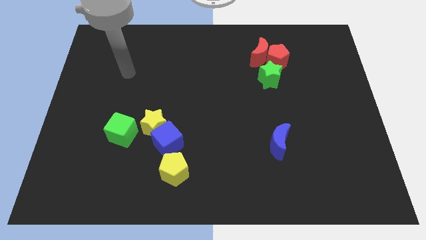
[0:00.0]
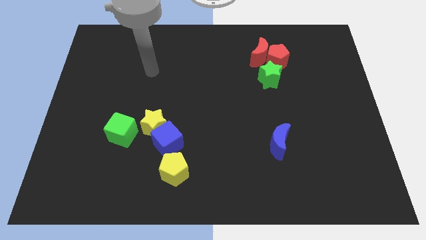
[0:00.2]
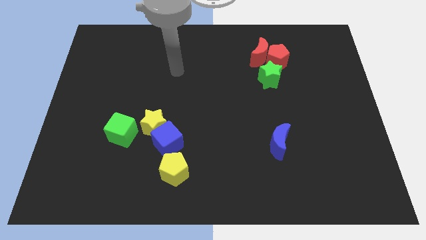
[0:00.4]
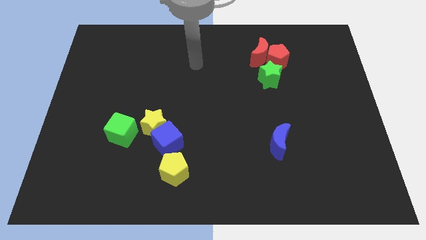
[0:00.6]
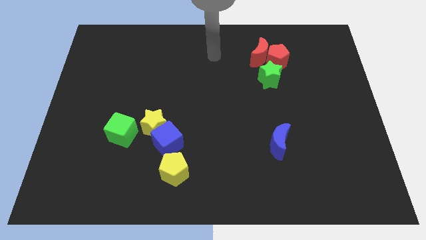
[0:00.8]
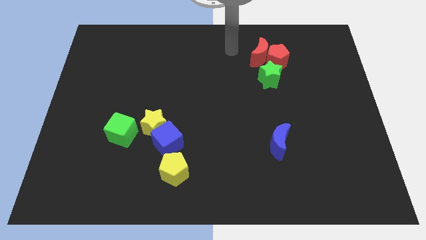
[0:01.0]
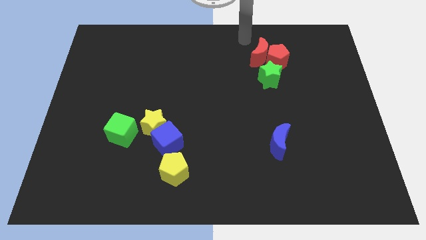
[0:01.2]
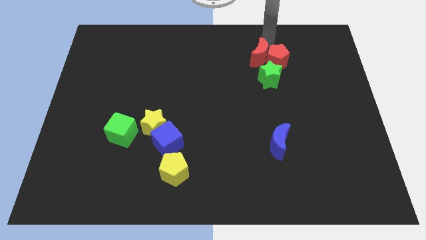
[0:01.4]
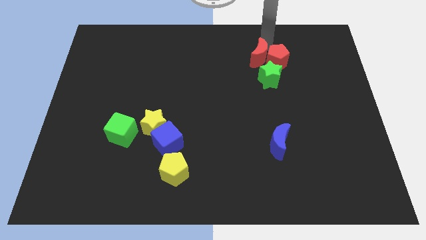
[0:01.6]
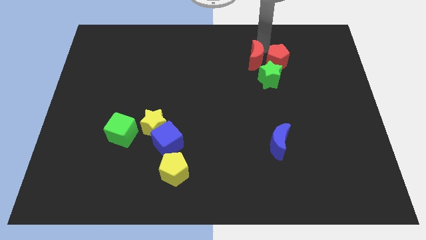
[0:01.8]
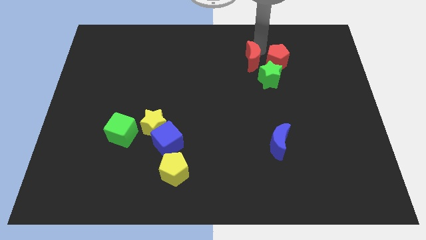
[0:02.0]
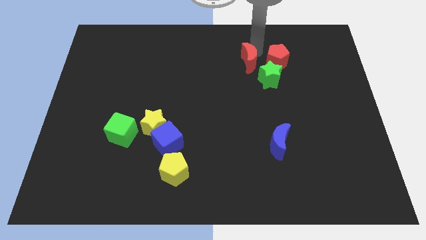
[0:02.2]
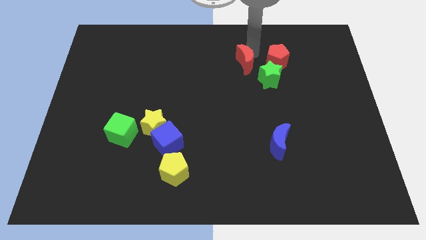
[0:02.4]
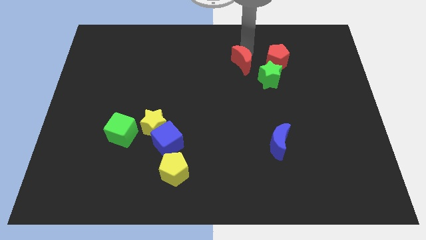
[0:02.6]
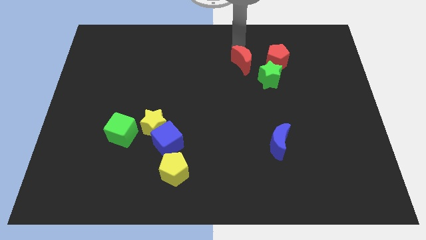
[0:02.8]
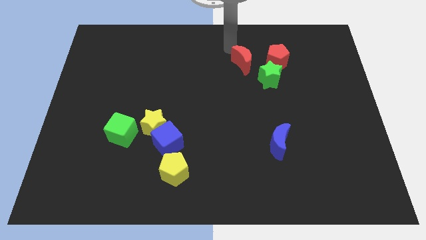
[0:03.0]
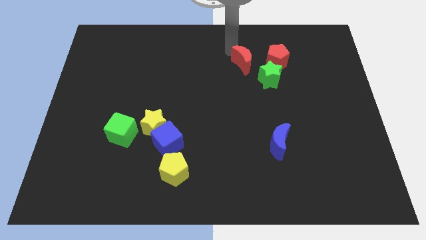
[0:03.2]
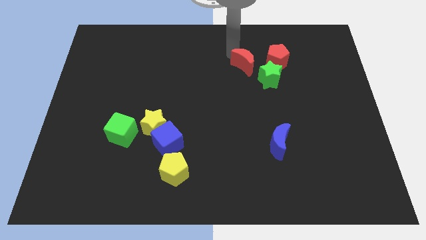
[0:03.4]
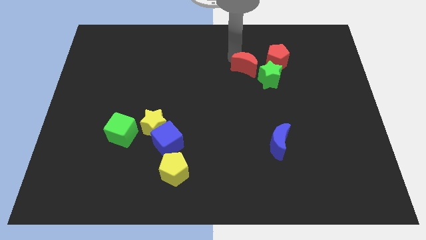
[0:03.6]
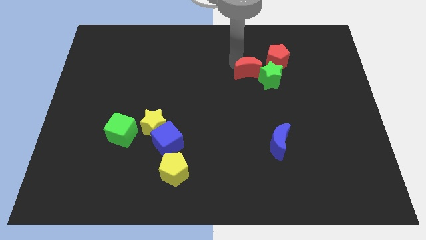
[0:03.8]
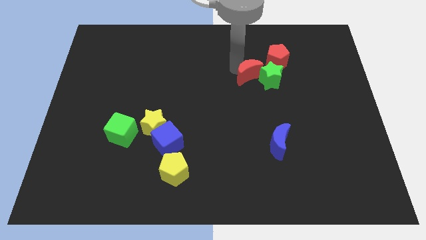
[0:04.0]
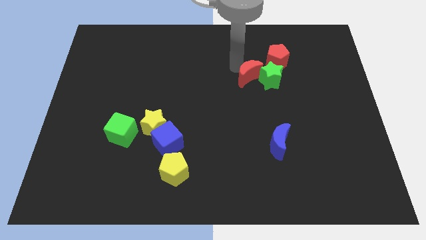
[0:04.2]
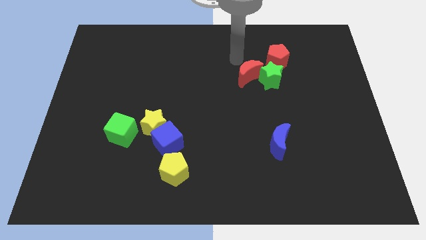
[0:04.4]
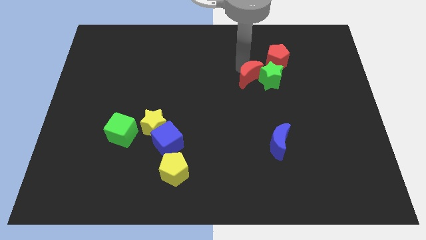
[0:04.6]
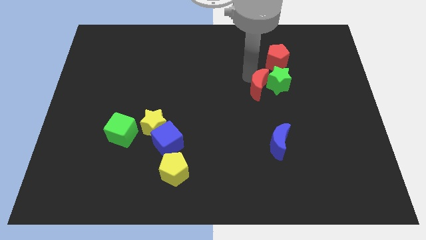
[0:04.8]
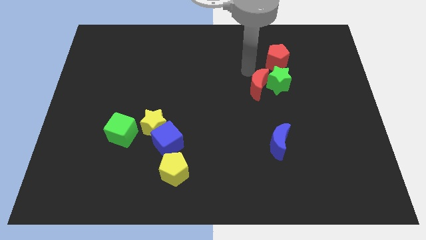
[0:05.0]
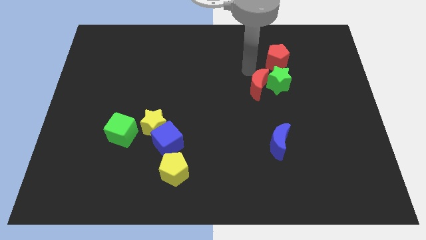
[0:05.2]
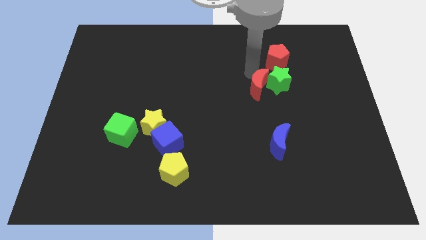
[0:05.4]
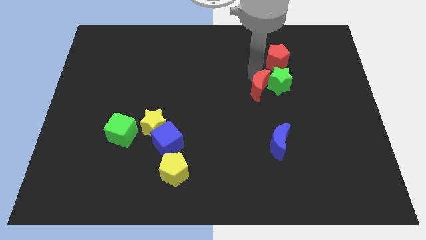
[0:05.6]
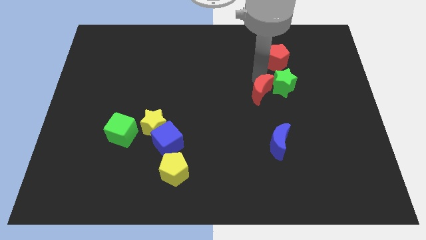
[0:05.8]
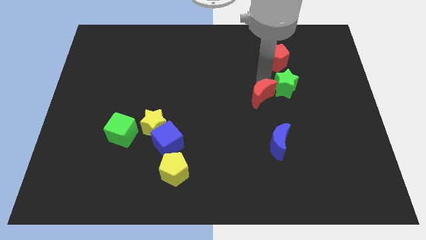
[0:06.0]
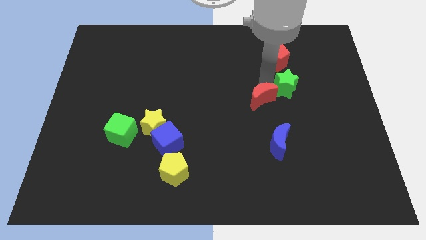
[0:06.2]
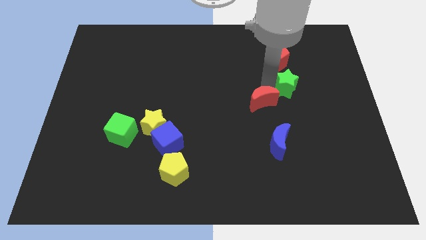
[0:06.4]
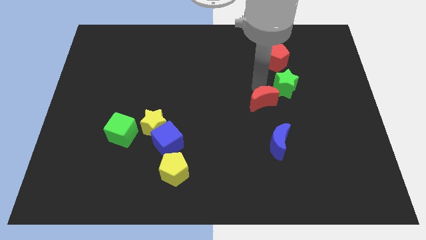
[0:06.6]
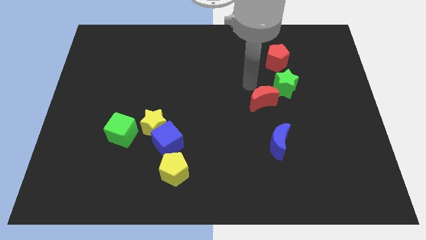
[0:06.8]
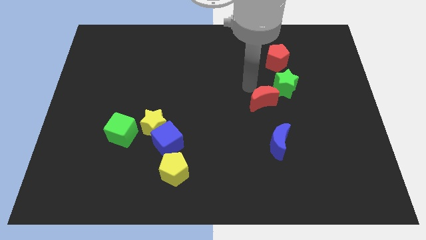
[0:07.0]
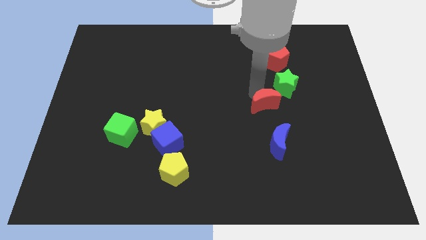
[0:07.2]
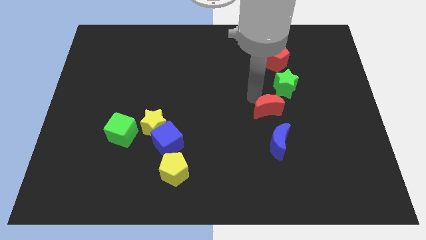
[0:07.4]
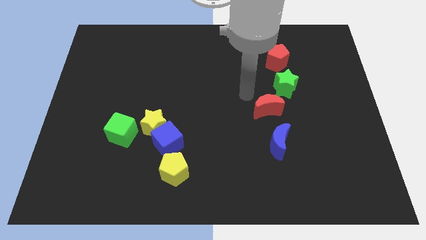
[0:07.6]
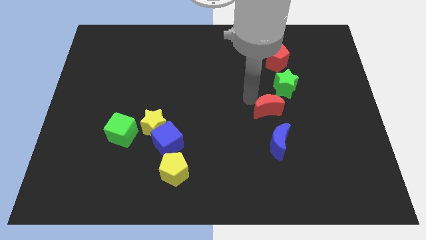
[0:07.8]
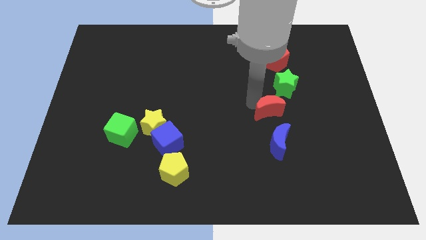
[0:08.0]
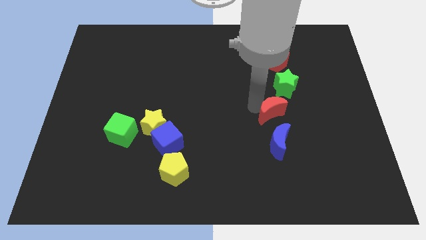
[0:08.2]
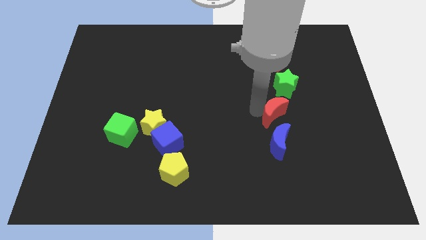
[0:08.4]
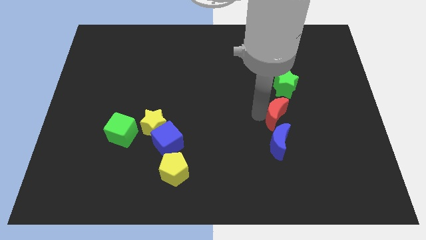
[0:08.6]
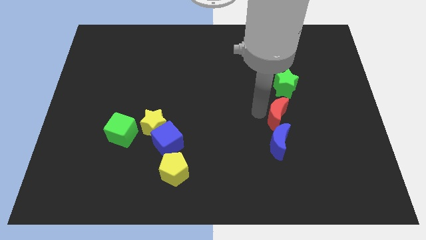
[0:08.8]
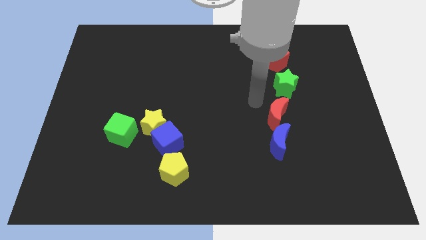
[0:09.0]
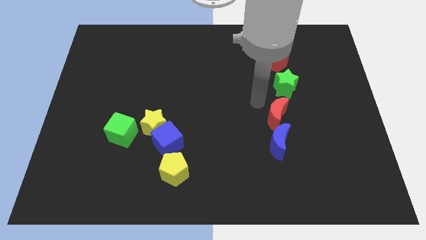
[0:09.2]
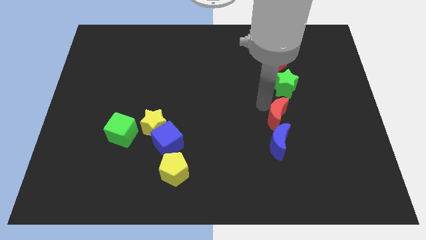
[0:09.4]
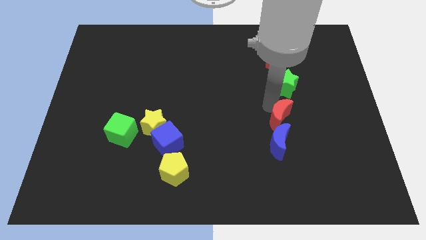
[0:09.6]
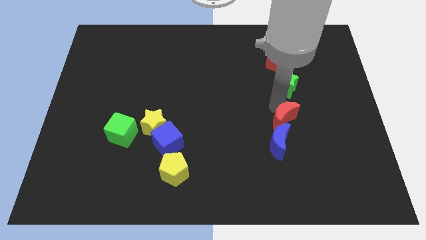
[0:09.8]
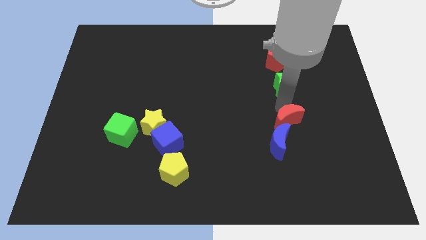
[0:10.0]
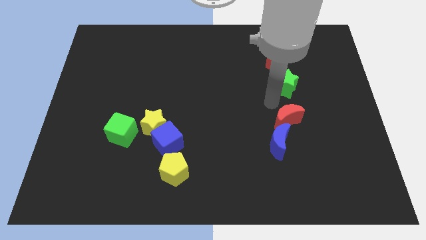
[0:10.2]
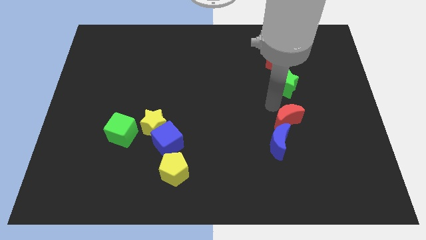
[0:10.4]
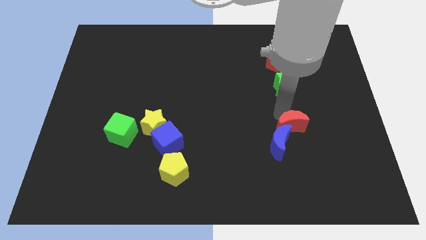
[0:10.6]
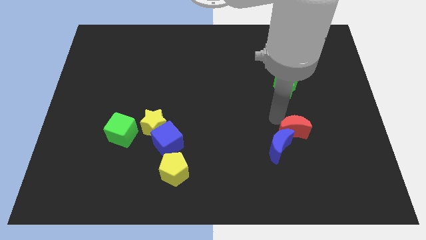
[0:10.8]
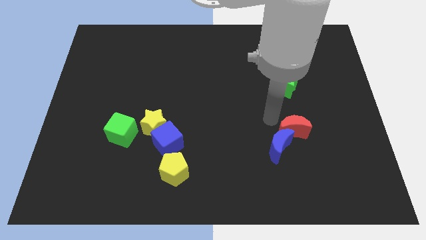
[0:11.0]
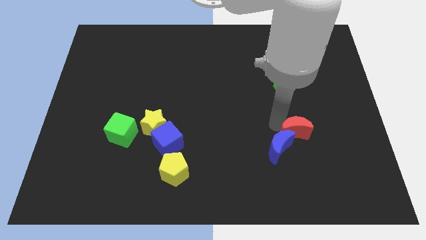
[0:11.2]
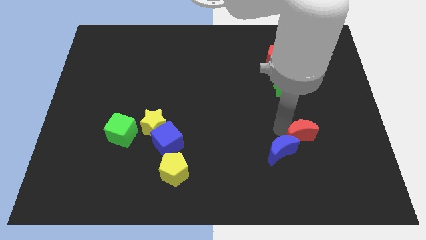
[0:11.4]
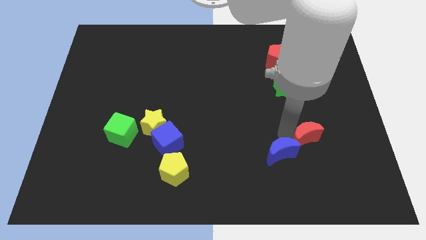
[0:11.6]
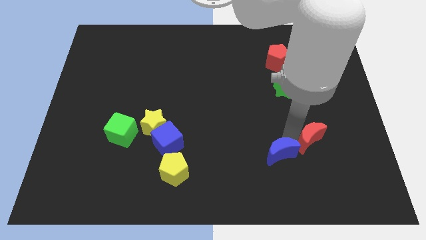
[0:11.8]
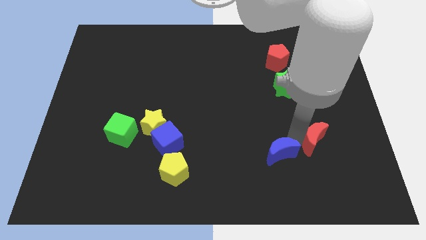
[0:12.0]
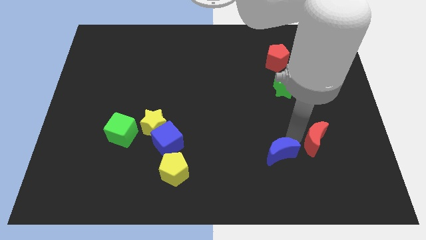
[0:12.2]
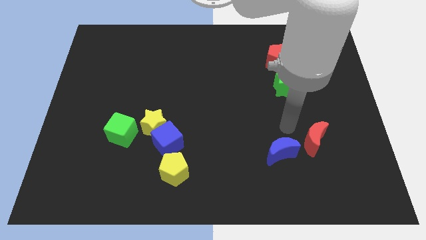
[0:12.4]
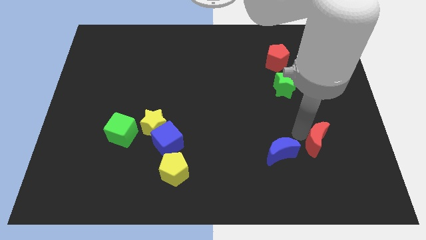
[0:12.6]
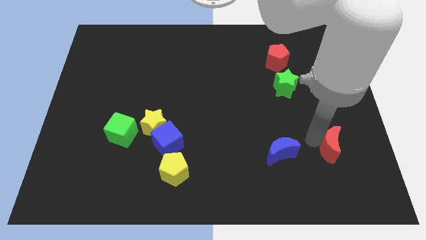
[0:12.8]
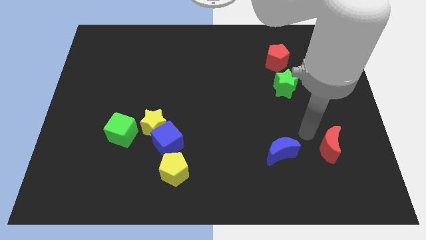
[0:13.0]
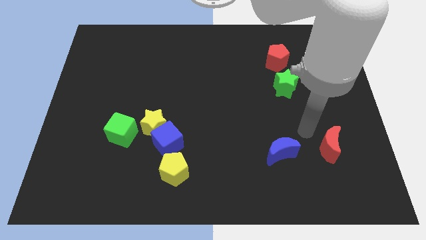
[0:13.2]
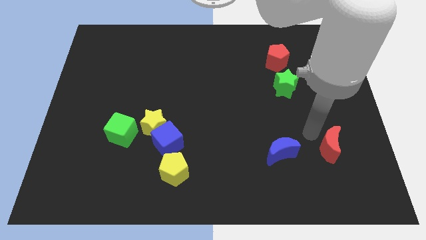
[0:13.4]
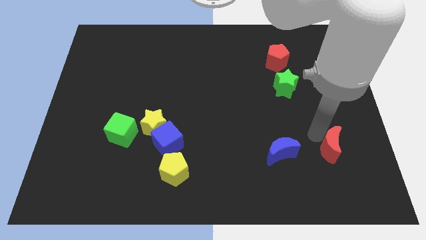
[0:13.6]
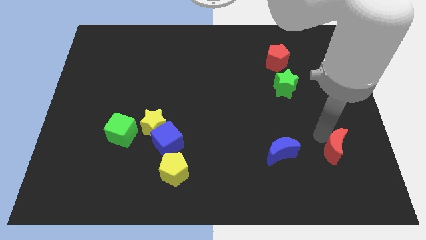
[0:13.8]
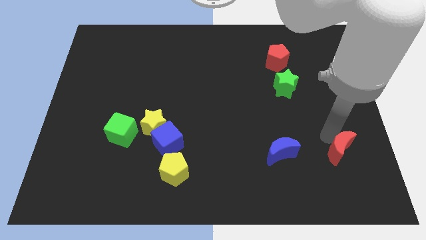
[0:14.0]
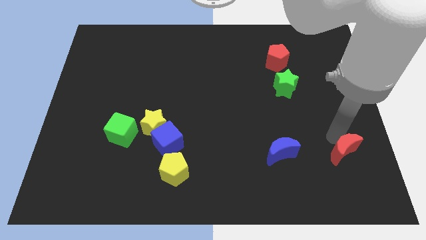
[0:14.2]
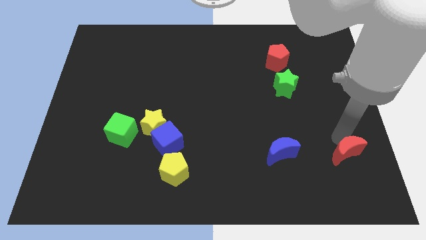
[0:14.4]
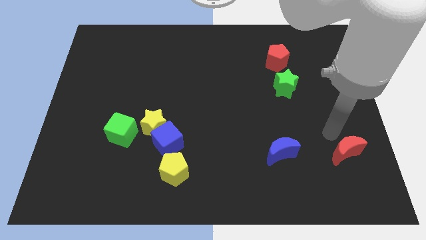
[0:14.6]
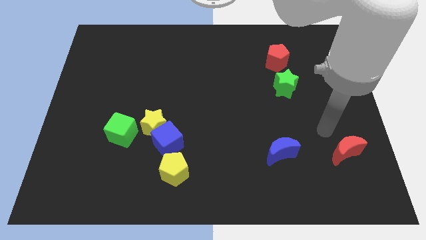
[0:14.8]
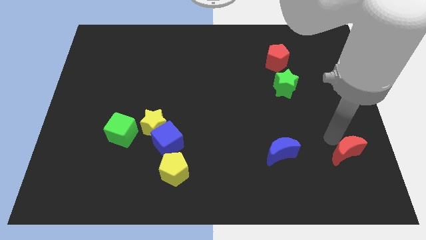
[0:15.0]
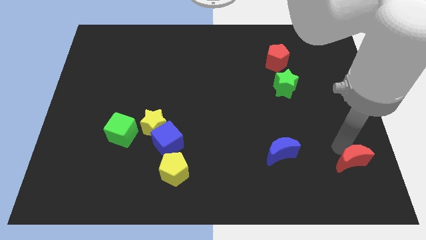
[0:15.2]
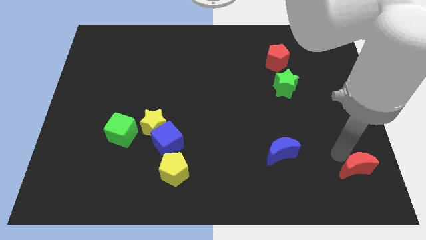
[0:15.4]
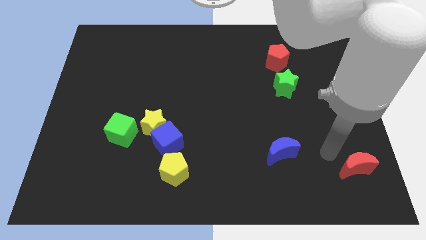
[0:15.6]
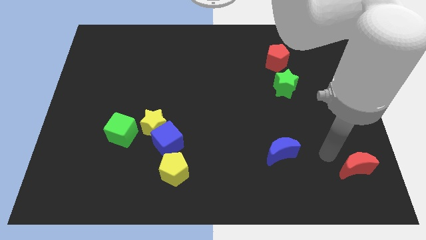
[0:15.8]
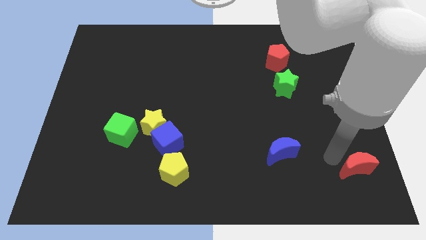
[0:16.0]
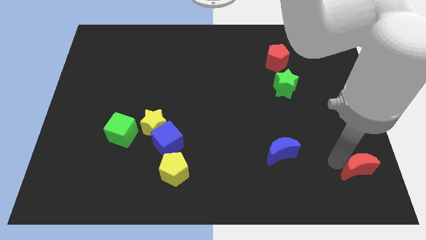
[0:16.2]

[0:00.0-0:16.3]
move the red moon to the lower right corner
